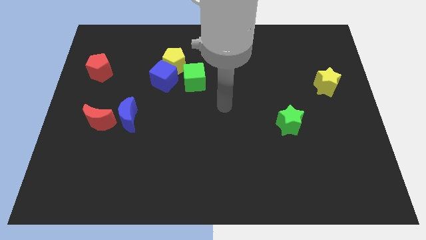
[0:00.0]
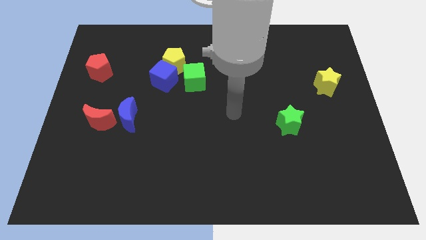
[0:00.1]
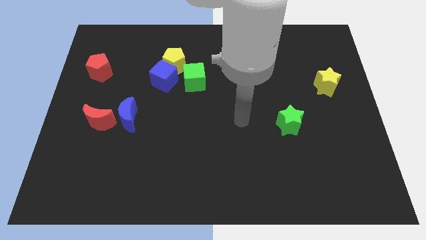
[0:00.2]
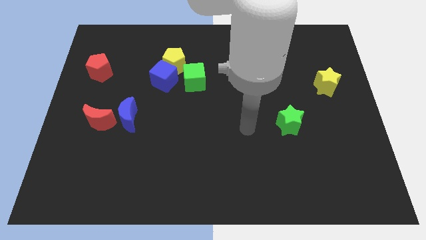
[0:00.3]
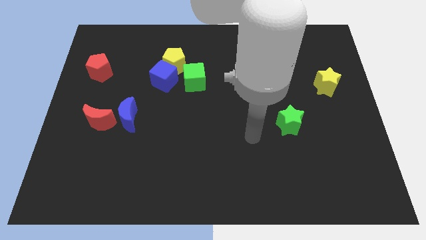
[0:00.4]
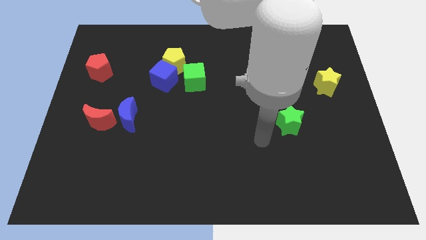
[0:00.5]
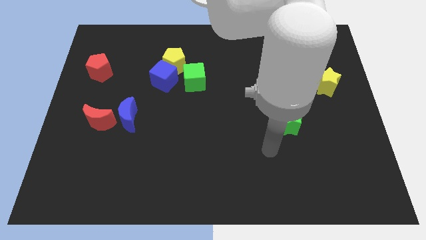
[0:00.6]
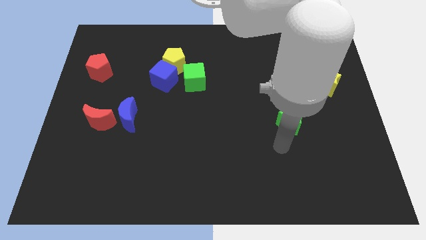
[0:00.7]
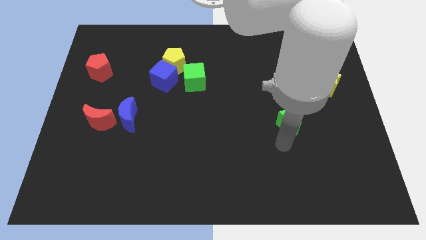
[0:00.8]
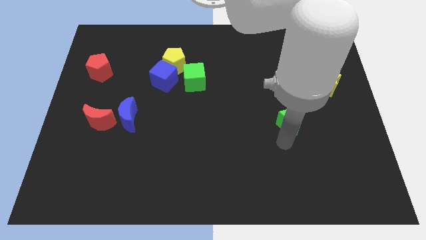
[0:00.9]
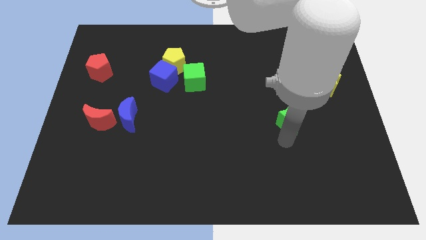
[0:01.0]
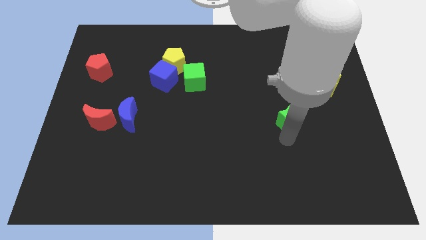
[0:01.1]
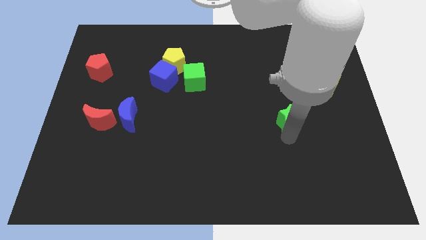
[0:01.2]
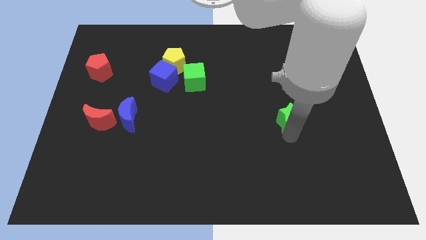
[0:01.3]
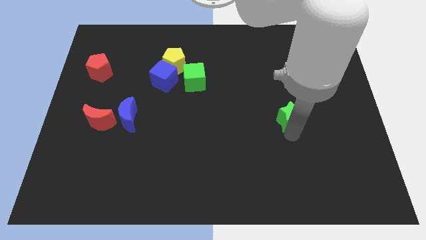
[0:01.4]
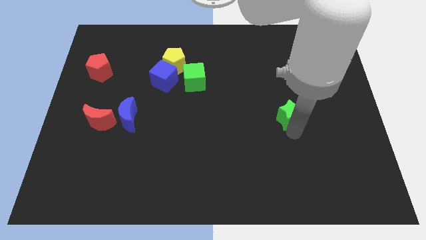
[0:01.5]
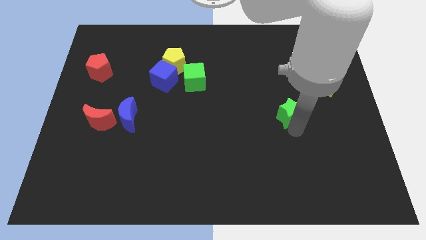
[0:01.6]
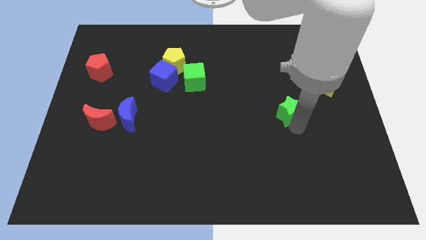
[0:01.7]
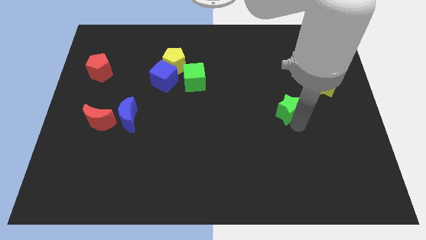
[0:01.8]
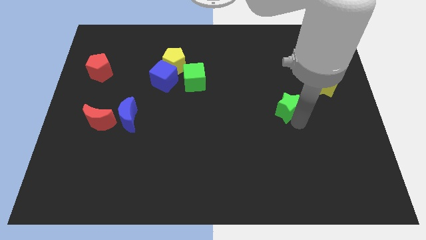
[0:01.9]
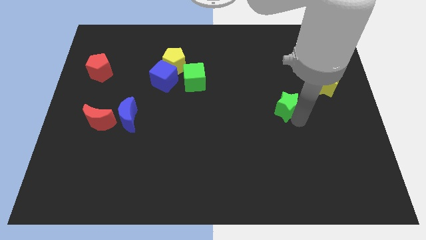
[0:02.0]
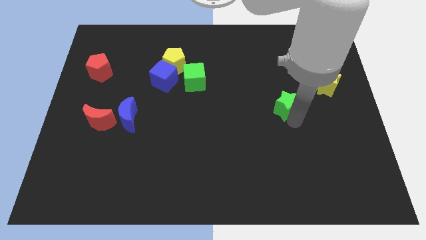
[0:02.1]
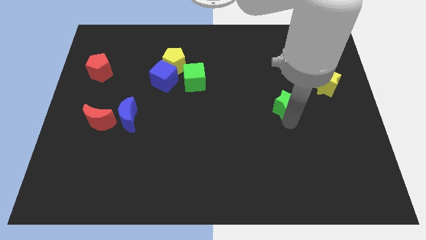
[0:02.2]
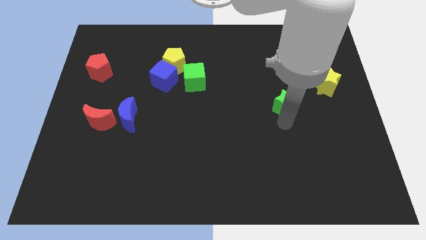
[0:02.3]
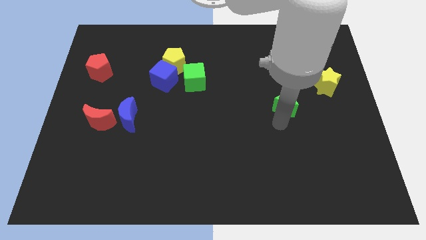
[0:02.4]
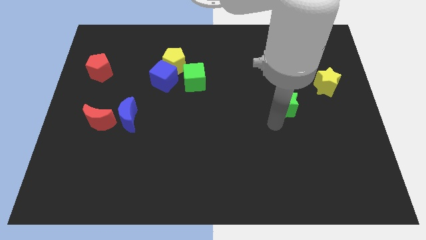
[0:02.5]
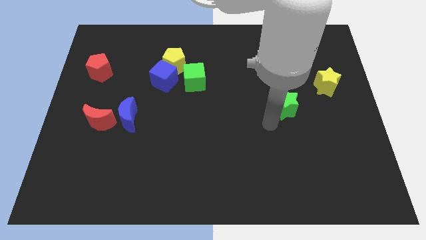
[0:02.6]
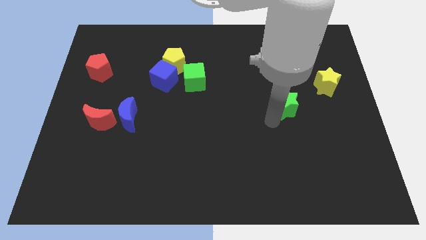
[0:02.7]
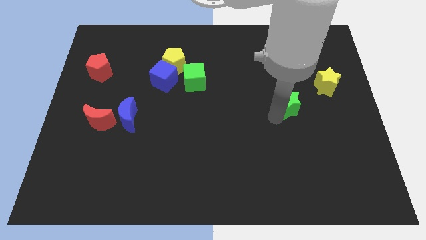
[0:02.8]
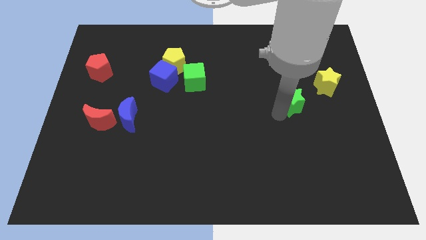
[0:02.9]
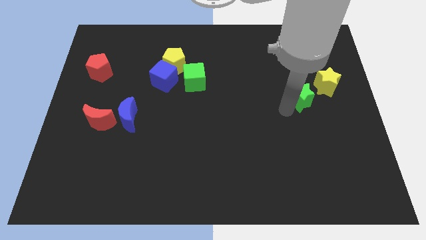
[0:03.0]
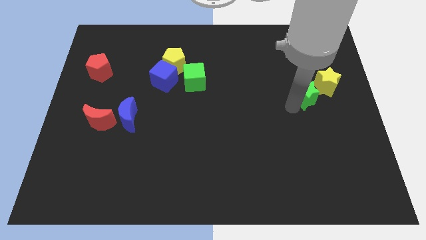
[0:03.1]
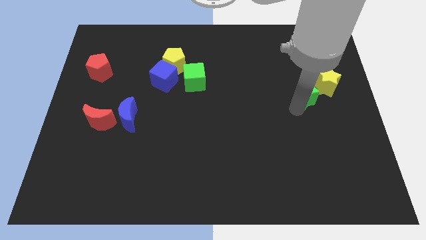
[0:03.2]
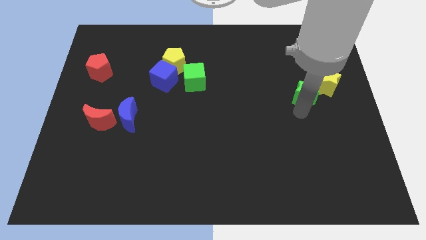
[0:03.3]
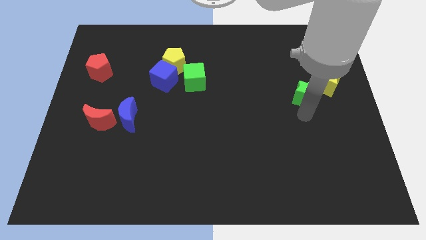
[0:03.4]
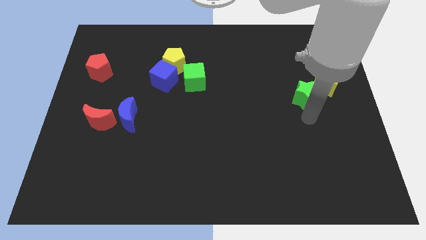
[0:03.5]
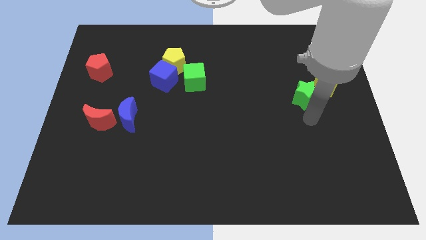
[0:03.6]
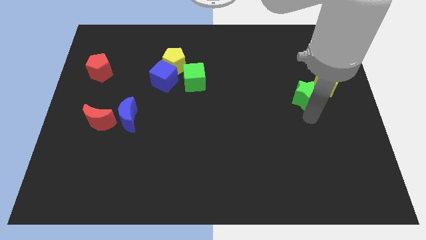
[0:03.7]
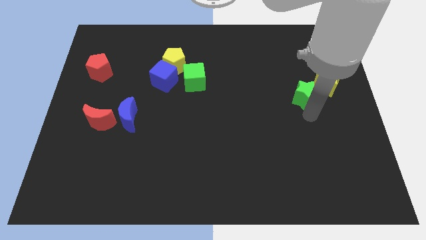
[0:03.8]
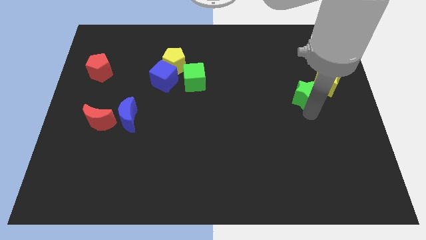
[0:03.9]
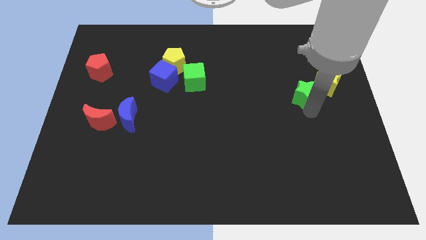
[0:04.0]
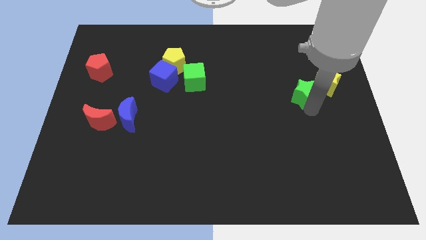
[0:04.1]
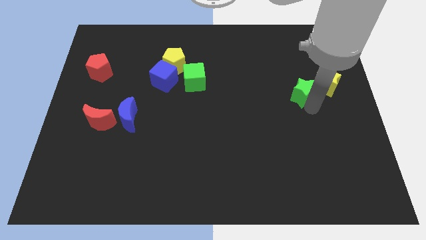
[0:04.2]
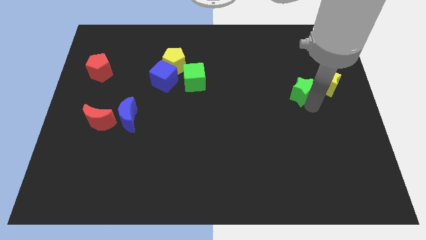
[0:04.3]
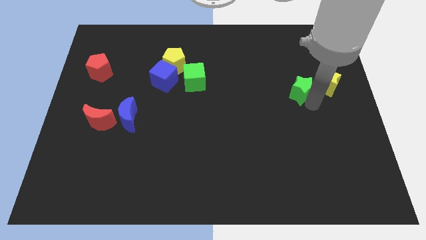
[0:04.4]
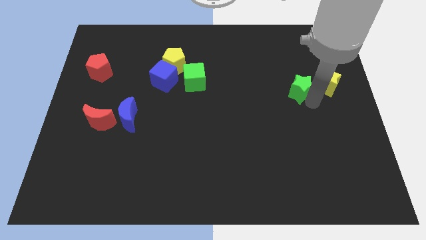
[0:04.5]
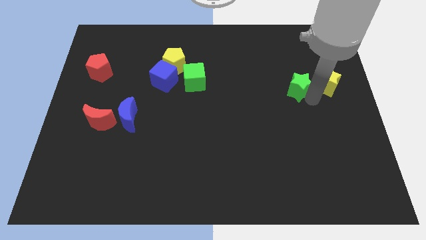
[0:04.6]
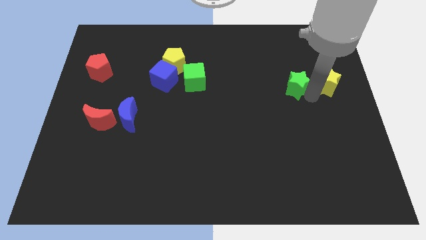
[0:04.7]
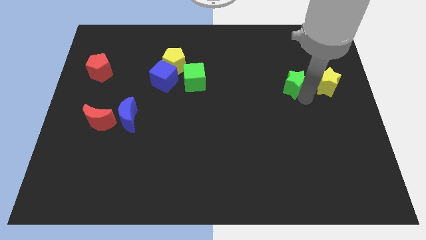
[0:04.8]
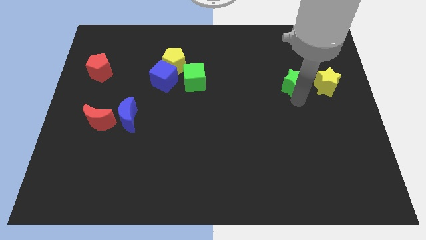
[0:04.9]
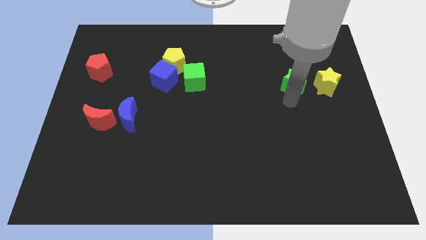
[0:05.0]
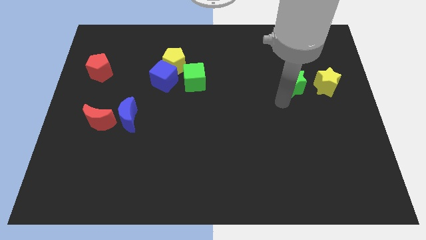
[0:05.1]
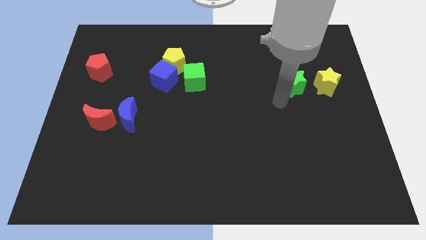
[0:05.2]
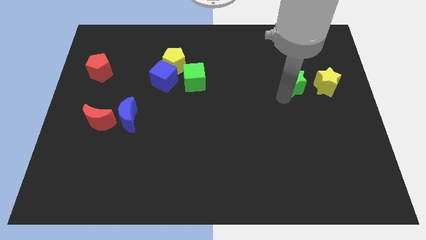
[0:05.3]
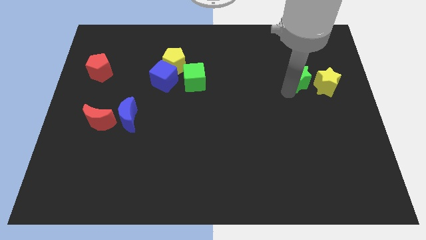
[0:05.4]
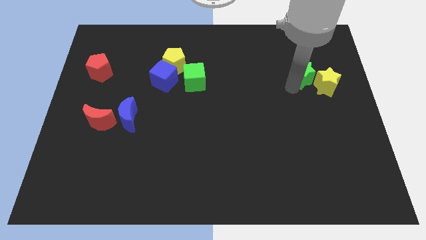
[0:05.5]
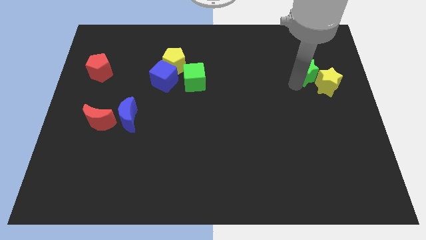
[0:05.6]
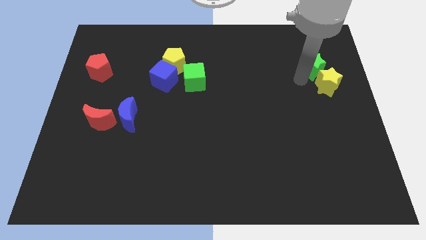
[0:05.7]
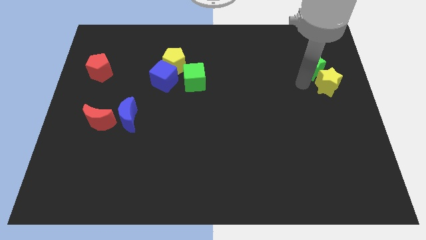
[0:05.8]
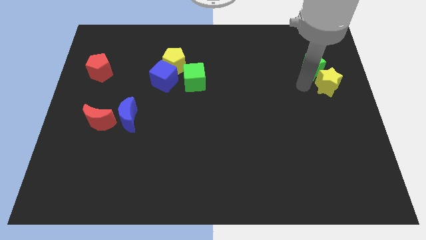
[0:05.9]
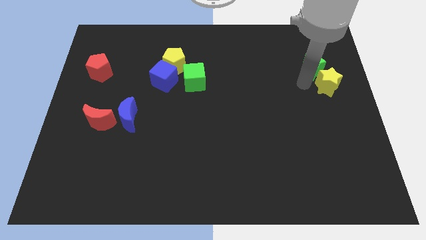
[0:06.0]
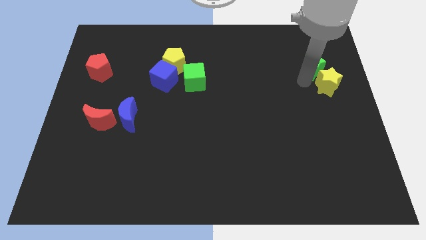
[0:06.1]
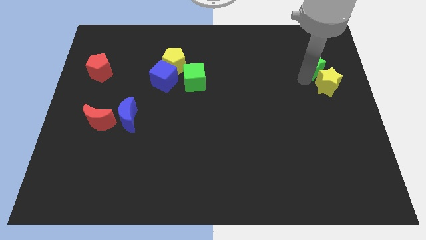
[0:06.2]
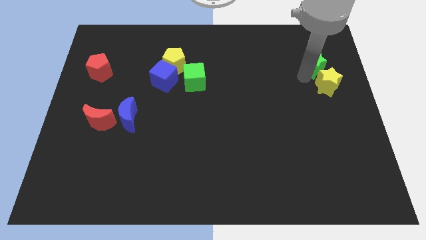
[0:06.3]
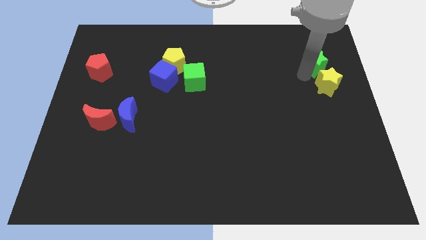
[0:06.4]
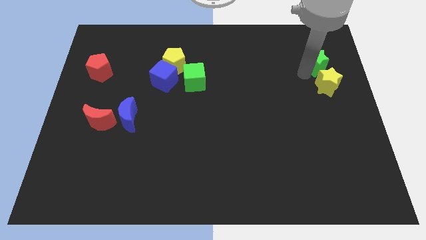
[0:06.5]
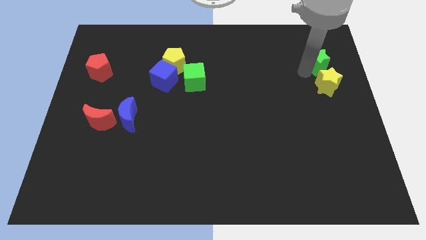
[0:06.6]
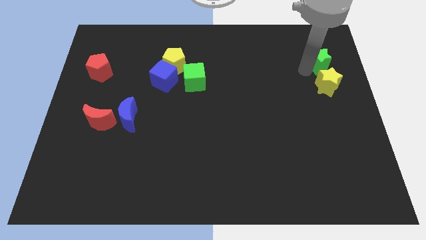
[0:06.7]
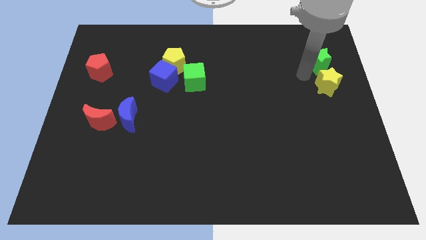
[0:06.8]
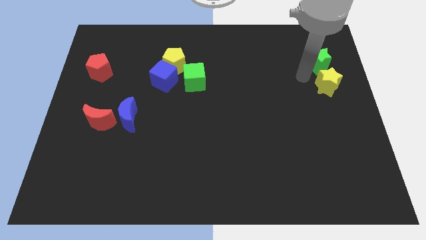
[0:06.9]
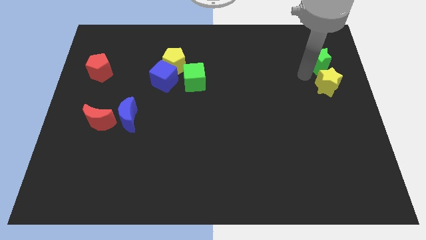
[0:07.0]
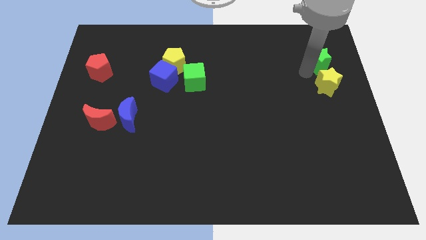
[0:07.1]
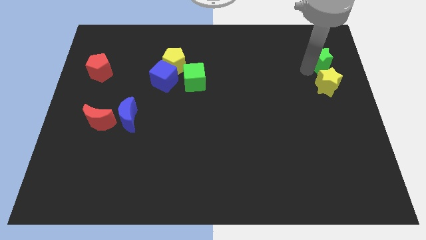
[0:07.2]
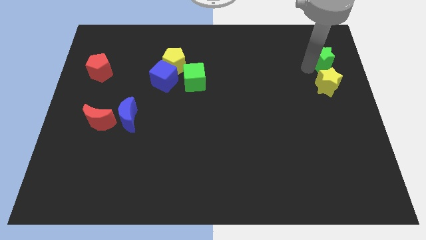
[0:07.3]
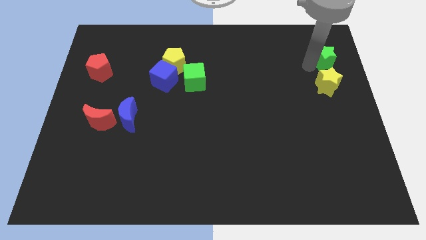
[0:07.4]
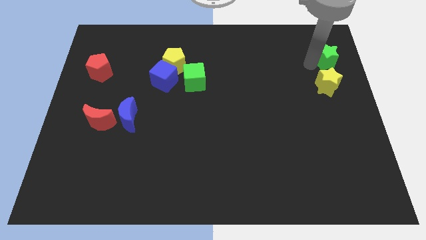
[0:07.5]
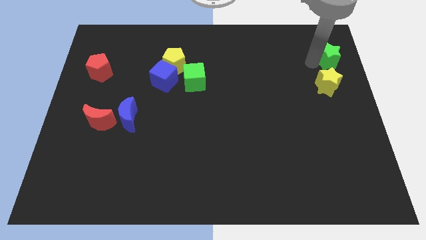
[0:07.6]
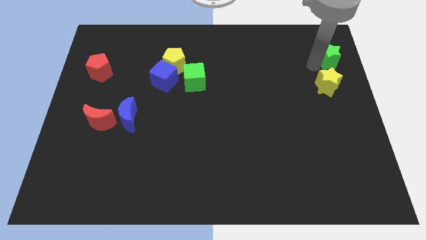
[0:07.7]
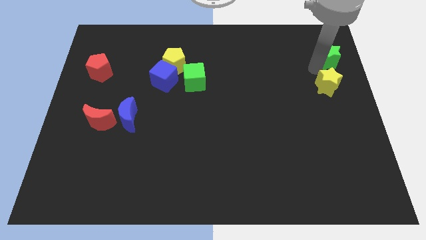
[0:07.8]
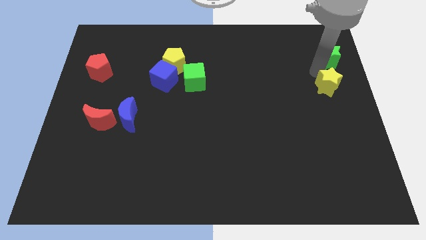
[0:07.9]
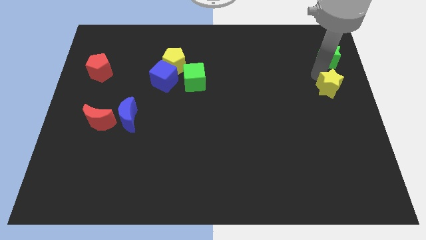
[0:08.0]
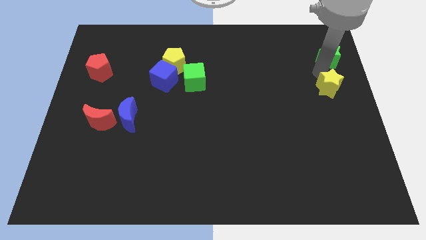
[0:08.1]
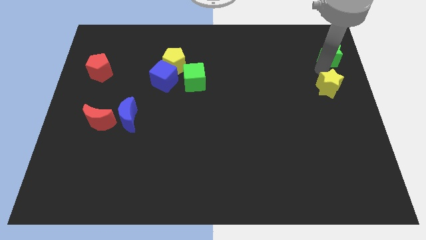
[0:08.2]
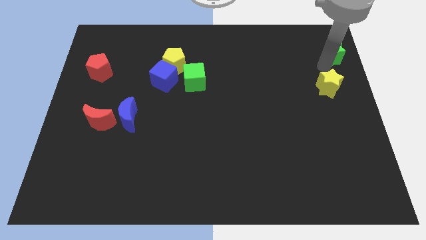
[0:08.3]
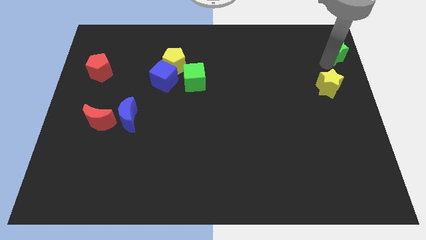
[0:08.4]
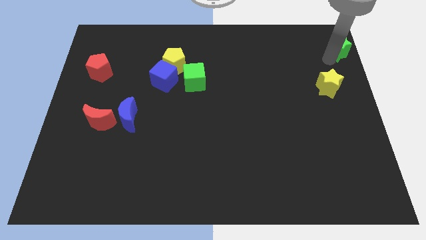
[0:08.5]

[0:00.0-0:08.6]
slide the green star to the top right corner
